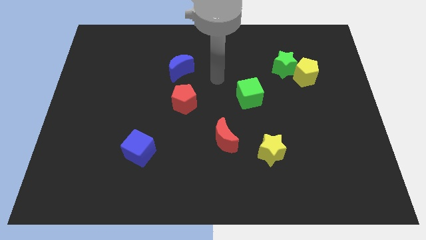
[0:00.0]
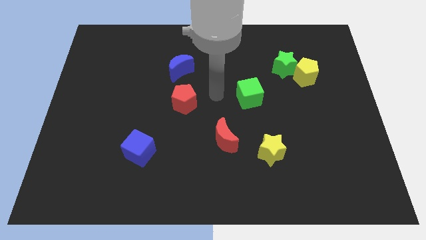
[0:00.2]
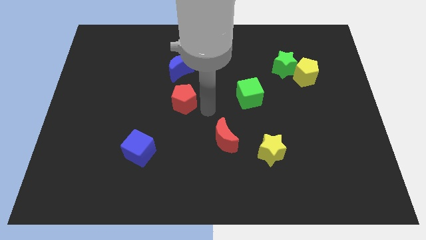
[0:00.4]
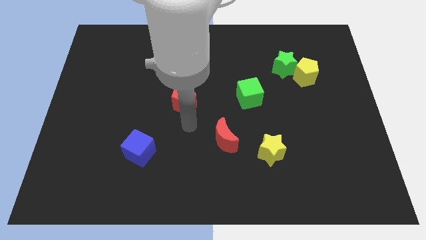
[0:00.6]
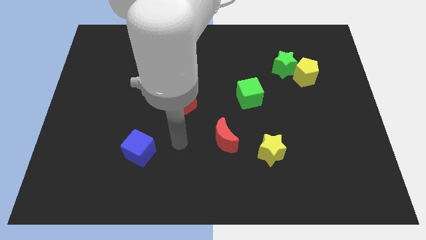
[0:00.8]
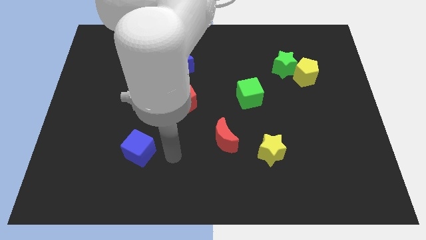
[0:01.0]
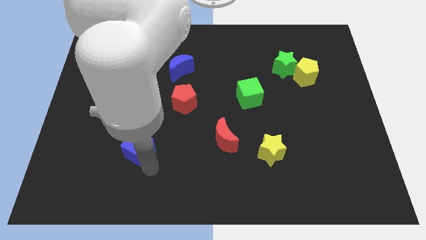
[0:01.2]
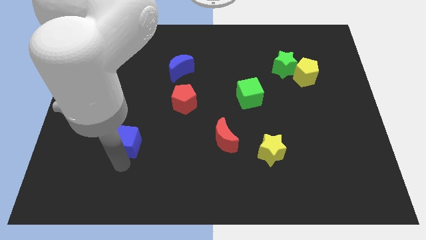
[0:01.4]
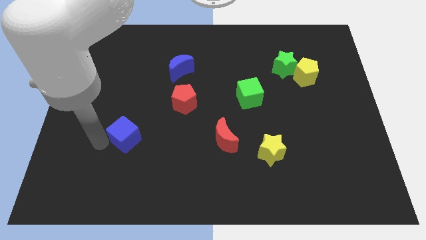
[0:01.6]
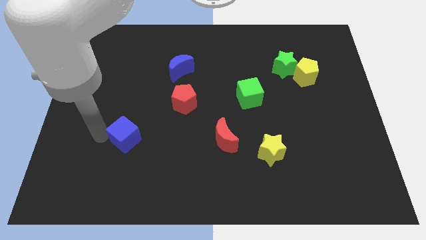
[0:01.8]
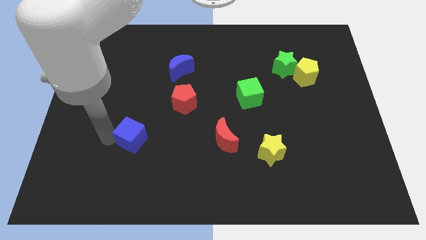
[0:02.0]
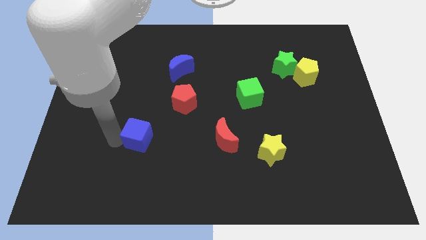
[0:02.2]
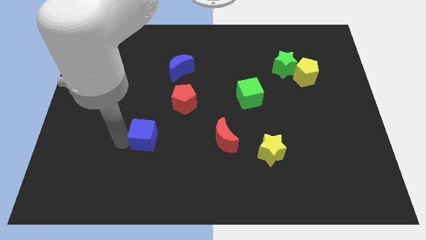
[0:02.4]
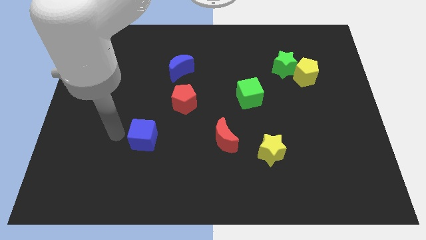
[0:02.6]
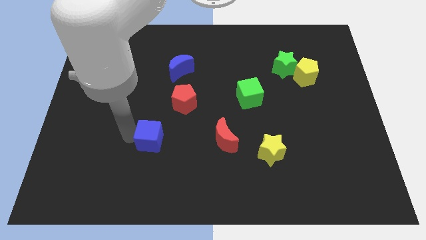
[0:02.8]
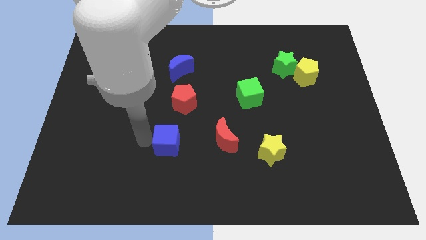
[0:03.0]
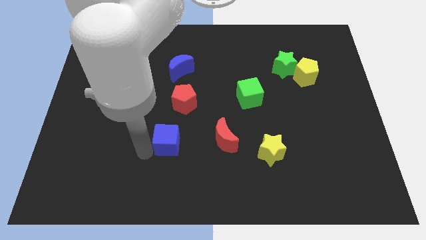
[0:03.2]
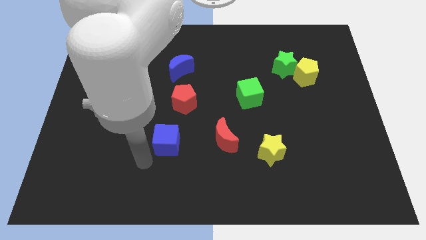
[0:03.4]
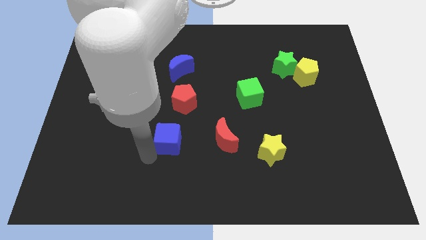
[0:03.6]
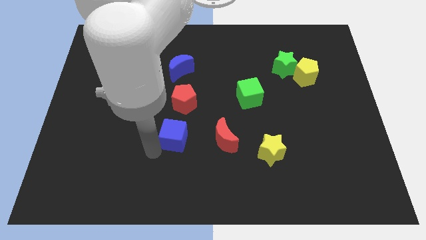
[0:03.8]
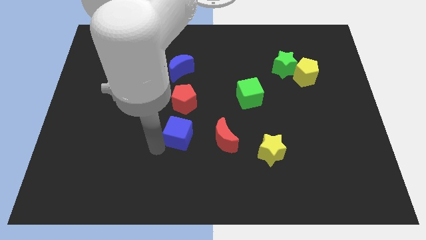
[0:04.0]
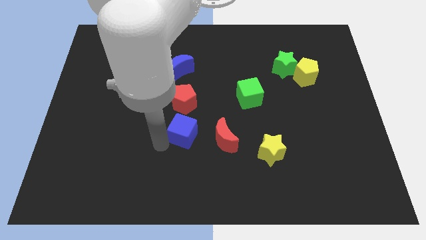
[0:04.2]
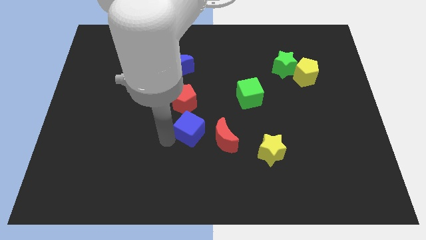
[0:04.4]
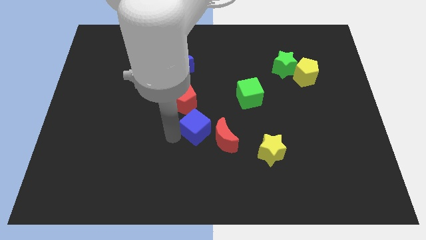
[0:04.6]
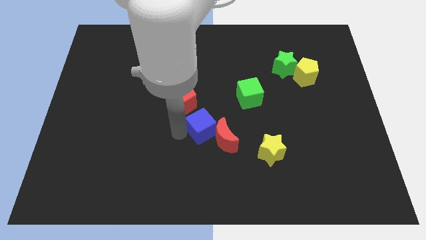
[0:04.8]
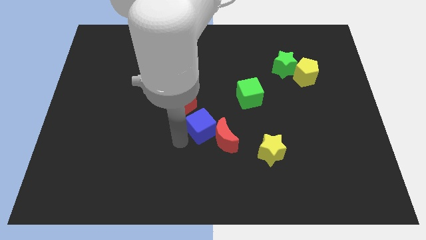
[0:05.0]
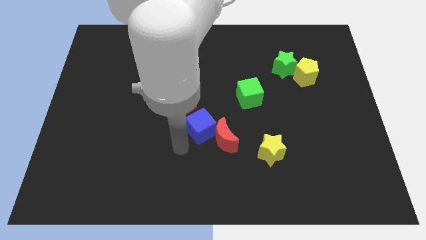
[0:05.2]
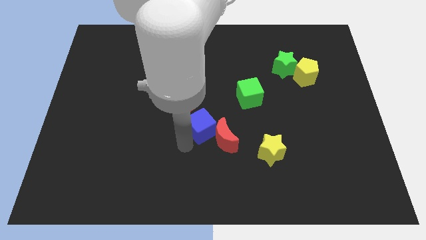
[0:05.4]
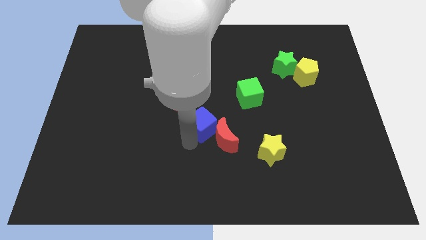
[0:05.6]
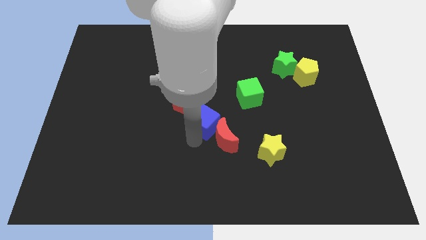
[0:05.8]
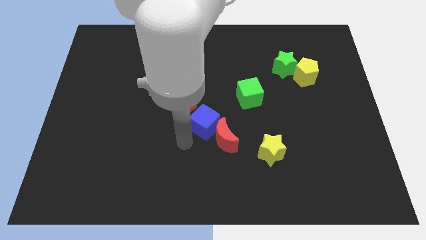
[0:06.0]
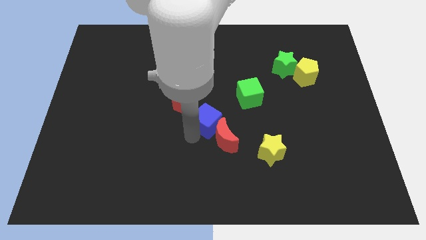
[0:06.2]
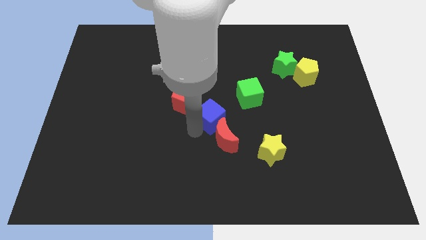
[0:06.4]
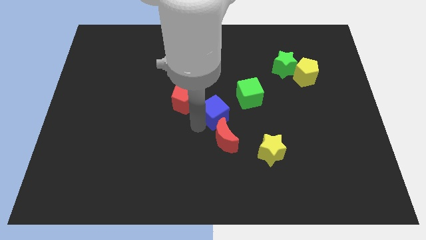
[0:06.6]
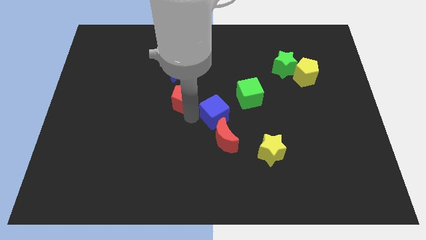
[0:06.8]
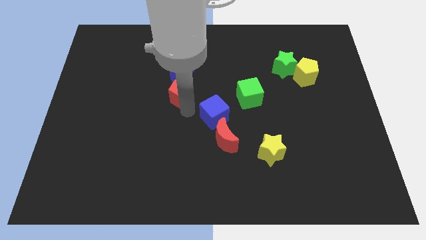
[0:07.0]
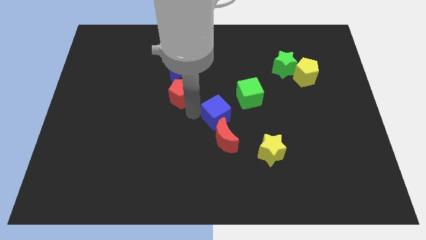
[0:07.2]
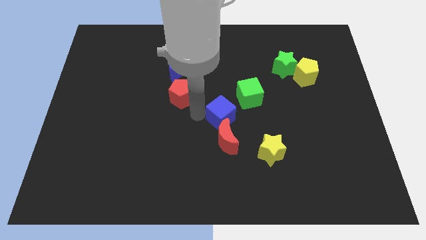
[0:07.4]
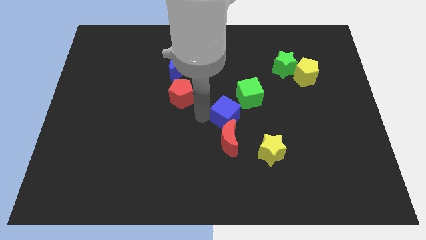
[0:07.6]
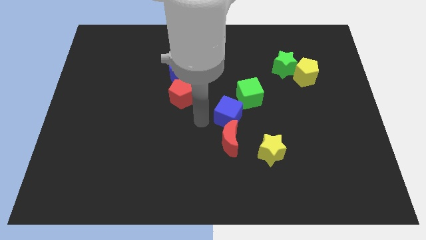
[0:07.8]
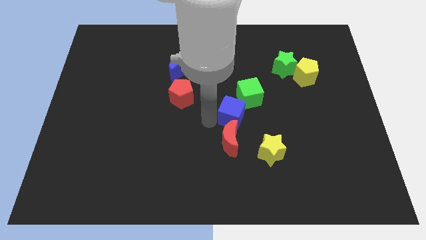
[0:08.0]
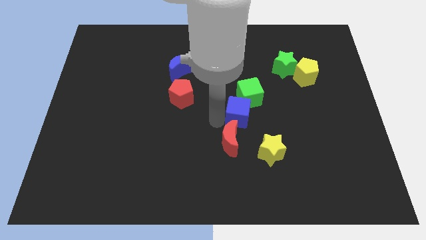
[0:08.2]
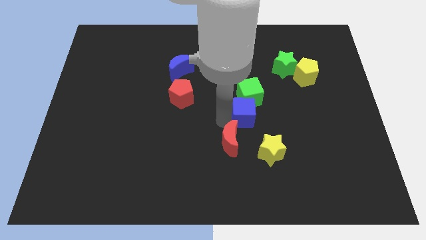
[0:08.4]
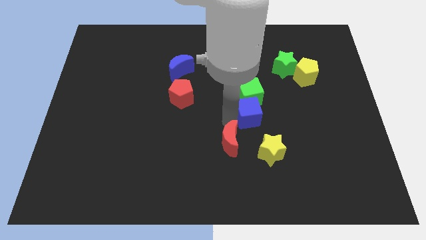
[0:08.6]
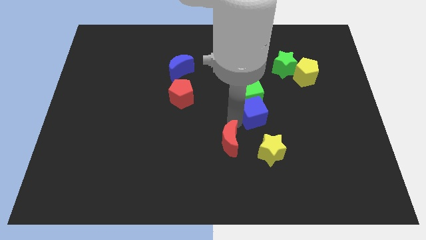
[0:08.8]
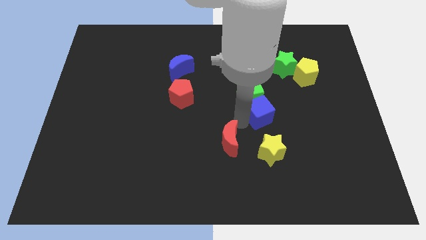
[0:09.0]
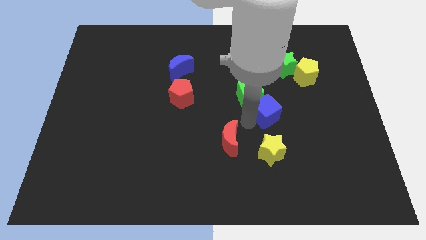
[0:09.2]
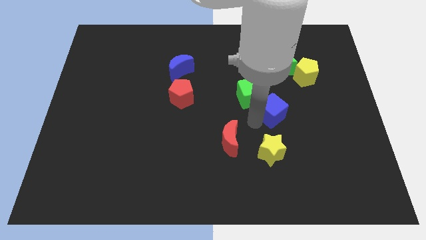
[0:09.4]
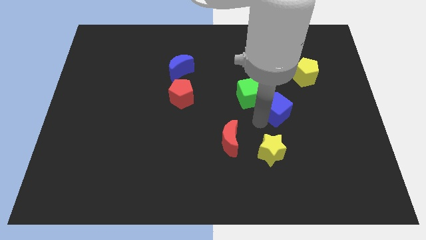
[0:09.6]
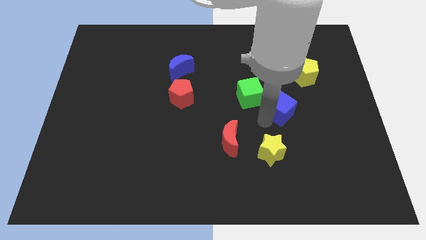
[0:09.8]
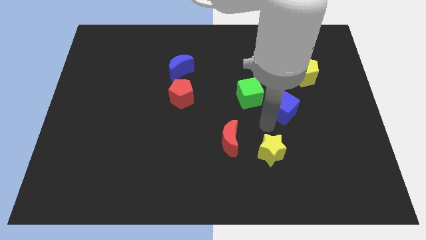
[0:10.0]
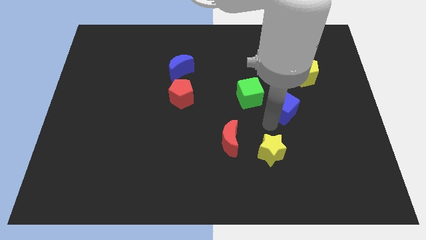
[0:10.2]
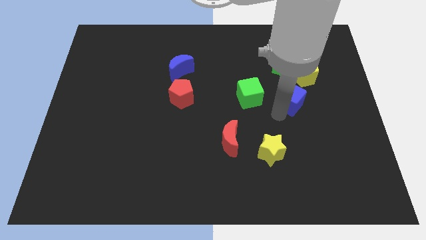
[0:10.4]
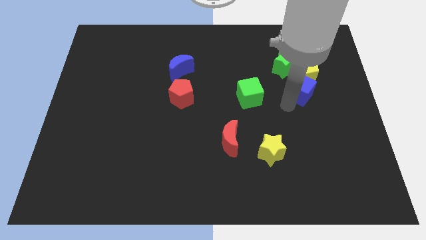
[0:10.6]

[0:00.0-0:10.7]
slide the blue cube to the yellow pentagon

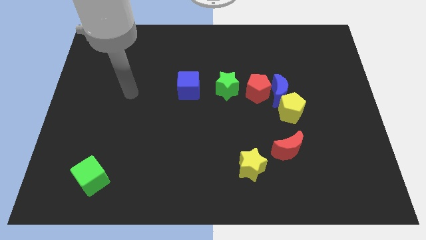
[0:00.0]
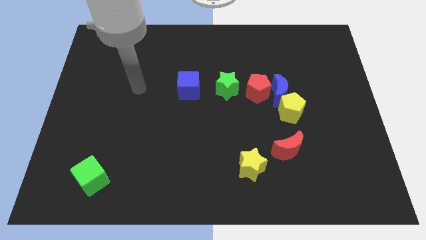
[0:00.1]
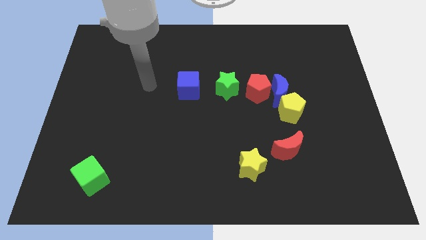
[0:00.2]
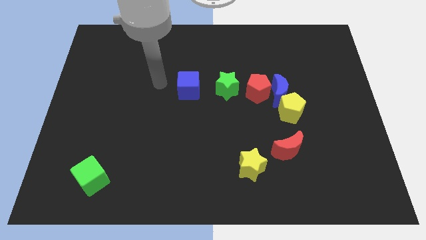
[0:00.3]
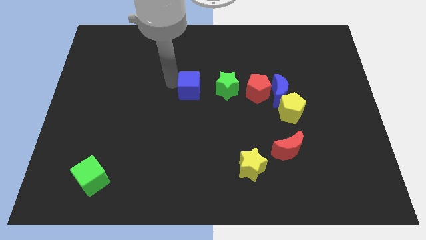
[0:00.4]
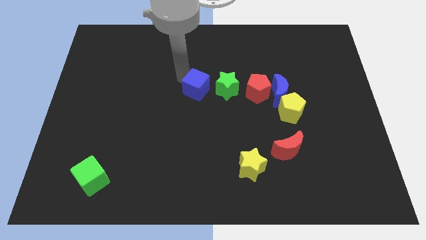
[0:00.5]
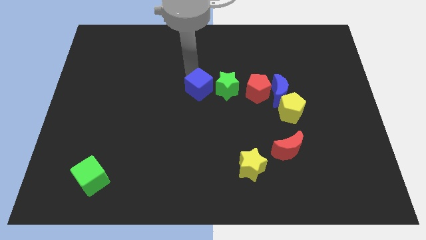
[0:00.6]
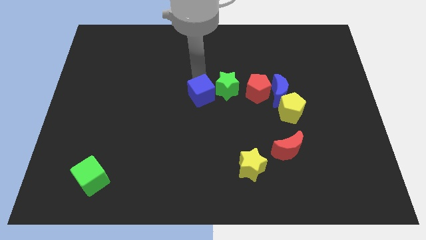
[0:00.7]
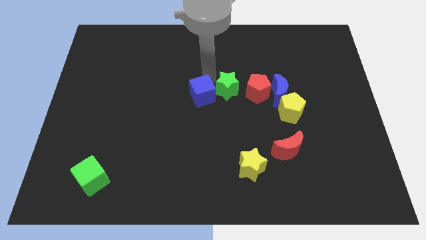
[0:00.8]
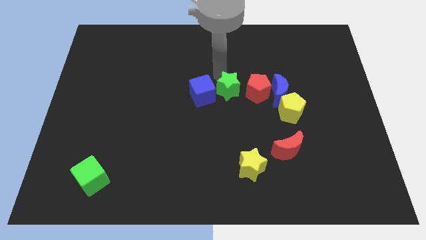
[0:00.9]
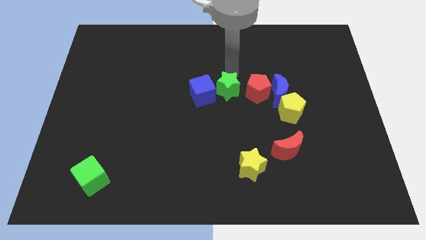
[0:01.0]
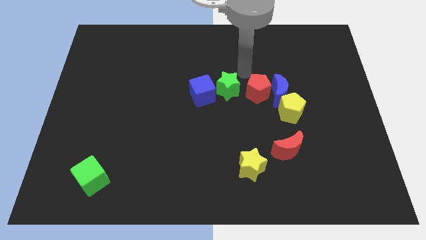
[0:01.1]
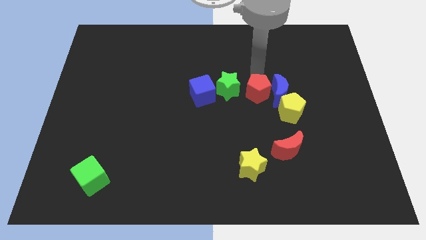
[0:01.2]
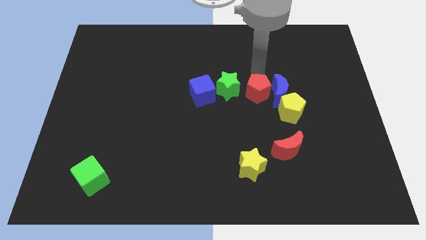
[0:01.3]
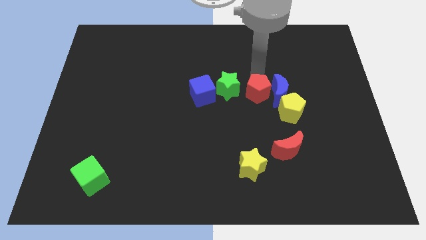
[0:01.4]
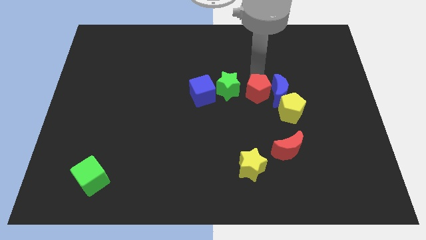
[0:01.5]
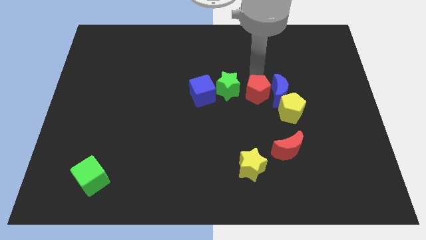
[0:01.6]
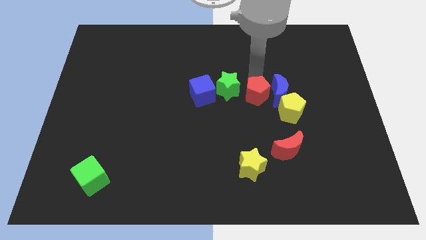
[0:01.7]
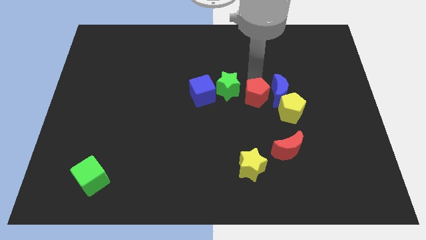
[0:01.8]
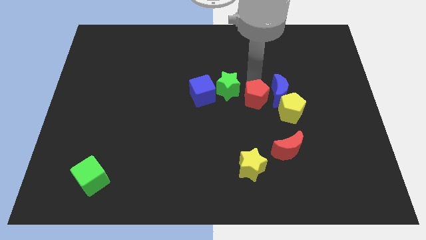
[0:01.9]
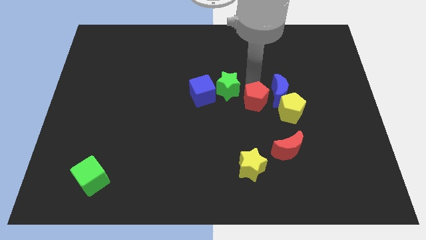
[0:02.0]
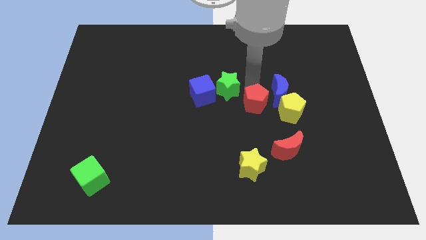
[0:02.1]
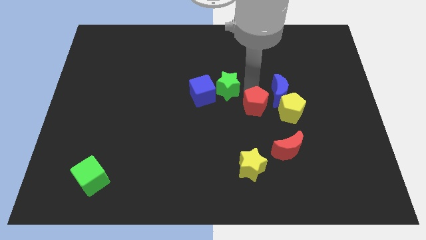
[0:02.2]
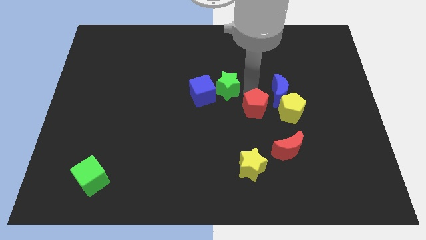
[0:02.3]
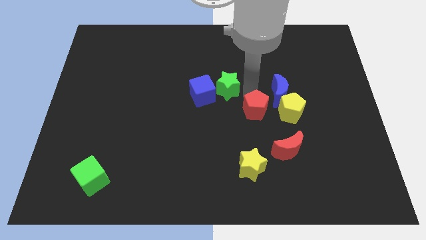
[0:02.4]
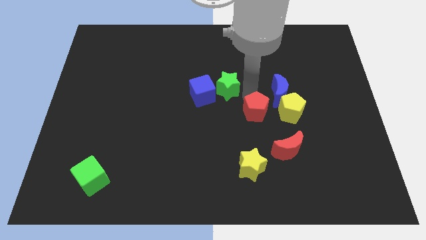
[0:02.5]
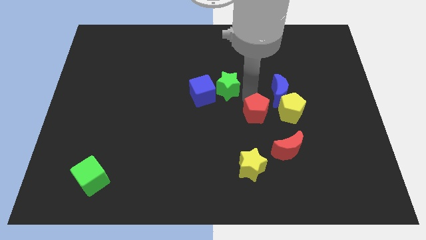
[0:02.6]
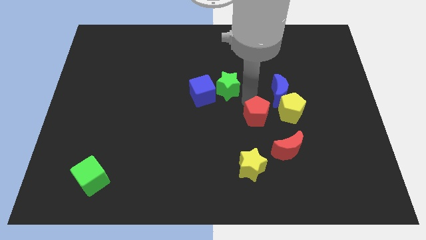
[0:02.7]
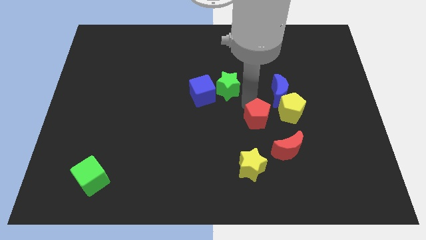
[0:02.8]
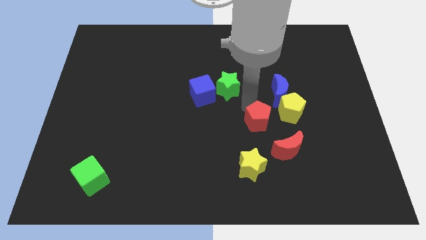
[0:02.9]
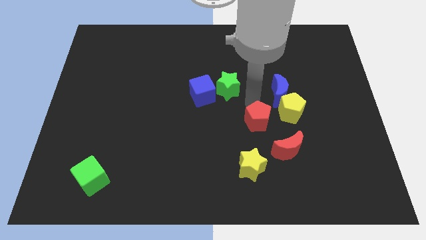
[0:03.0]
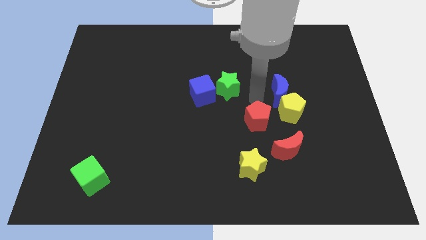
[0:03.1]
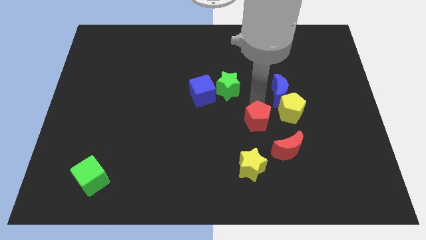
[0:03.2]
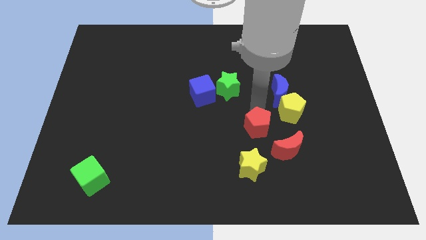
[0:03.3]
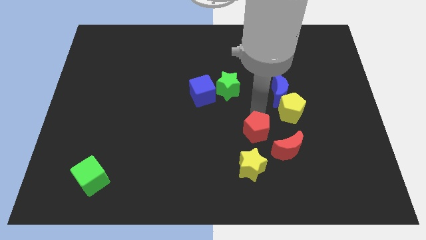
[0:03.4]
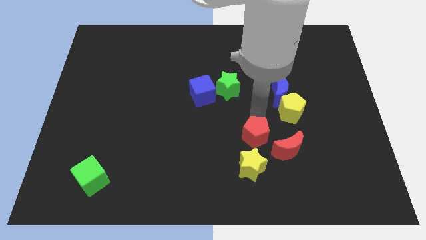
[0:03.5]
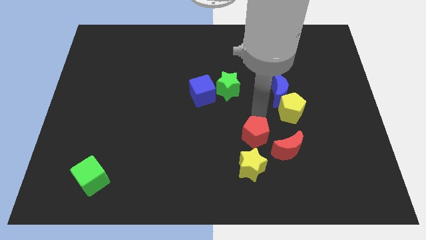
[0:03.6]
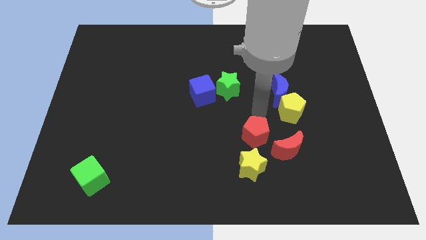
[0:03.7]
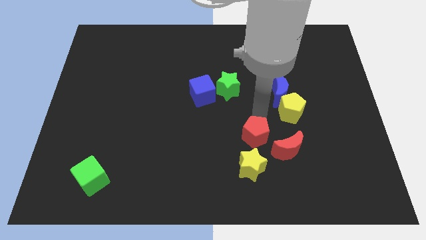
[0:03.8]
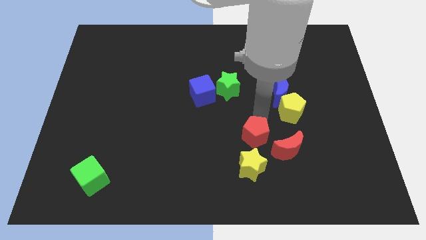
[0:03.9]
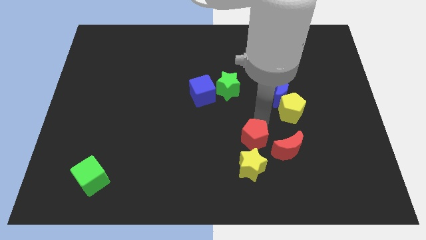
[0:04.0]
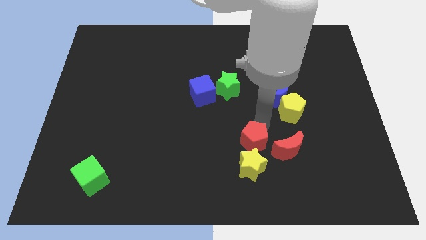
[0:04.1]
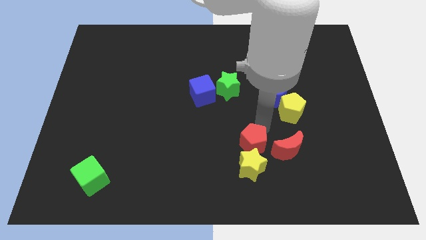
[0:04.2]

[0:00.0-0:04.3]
move the red pentagon close to the yellow star
